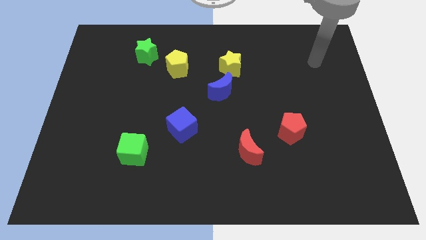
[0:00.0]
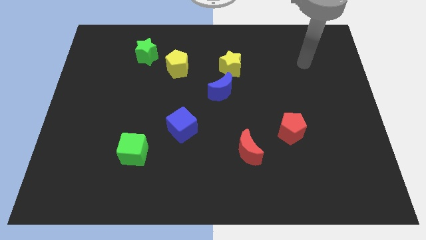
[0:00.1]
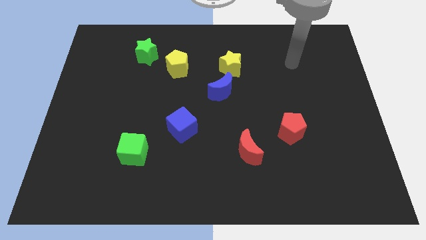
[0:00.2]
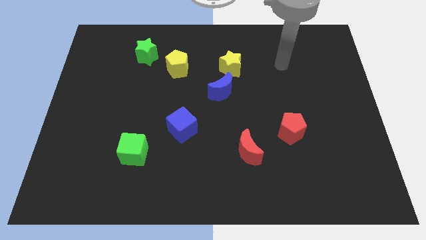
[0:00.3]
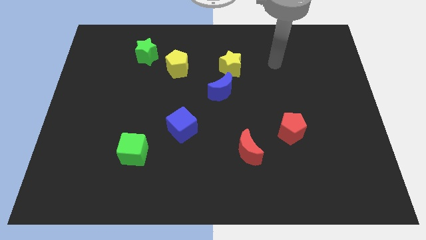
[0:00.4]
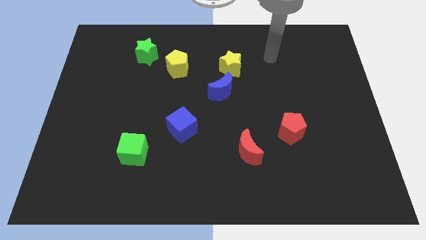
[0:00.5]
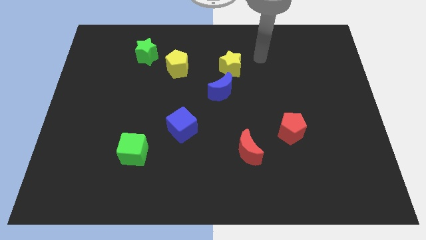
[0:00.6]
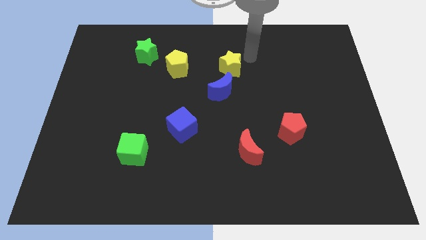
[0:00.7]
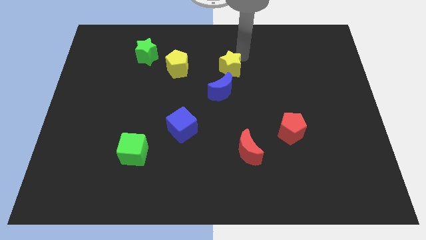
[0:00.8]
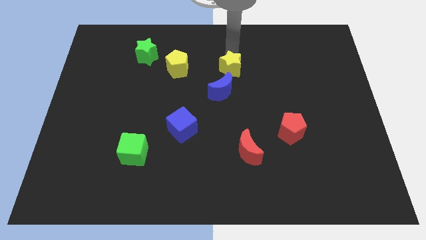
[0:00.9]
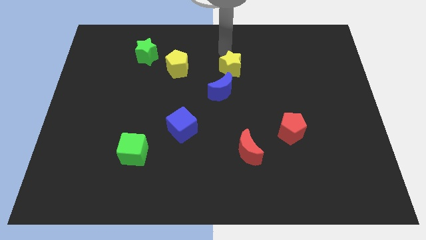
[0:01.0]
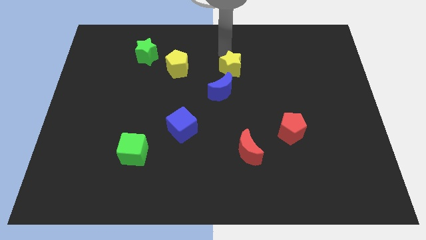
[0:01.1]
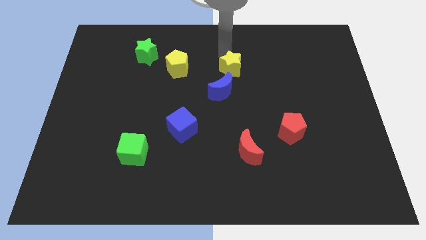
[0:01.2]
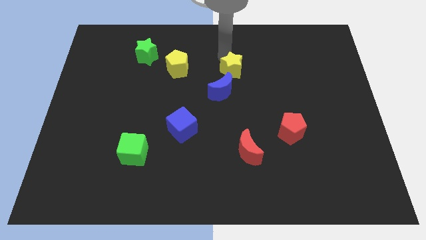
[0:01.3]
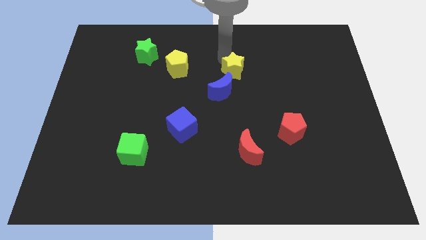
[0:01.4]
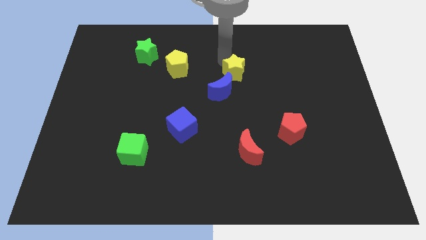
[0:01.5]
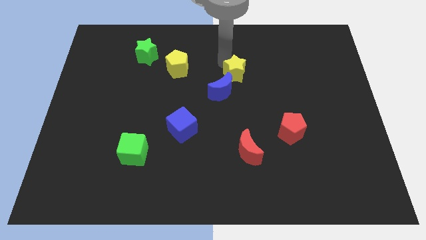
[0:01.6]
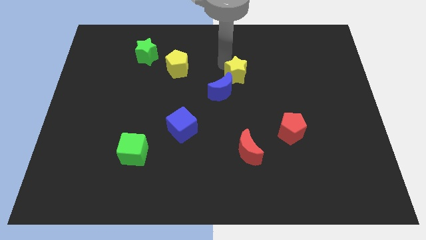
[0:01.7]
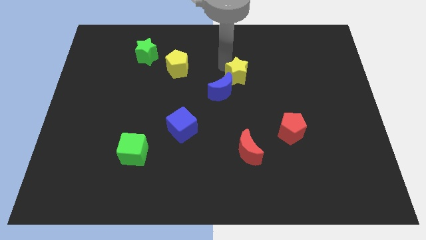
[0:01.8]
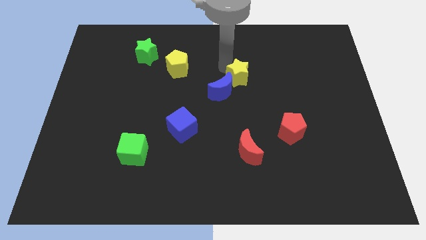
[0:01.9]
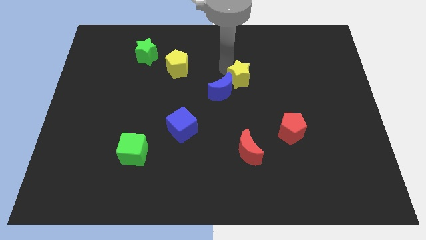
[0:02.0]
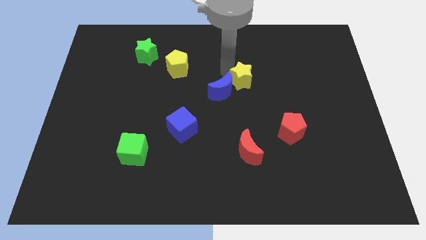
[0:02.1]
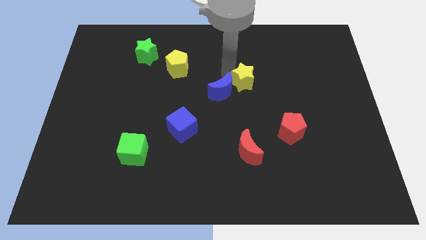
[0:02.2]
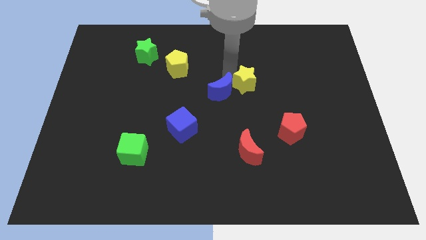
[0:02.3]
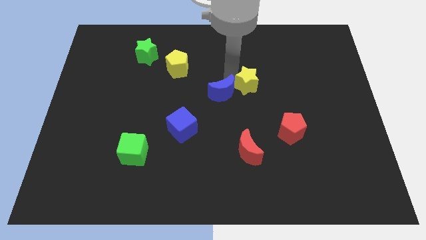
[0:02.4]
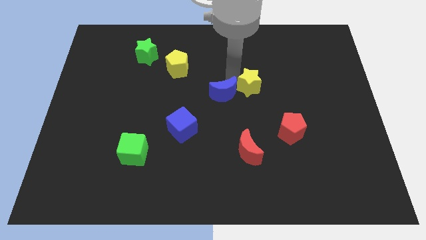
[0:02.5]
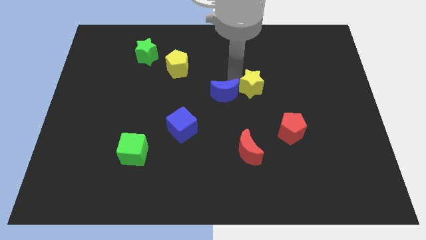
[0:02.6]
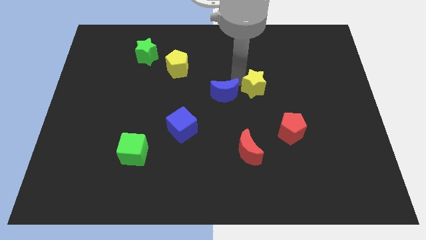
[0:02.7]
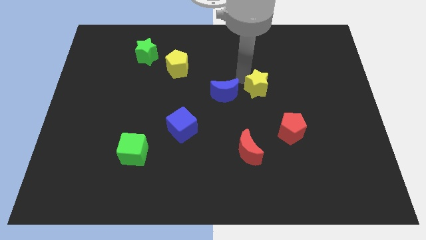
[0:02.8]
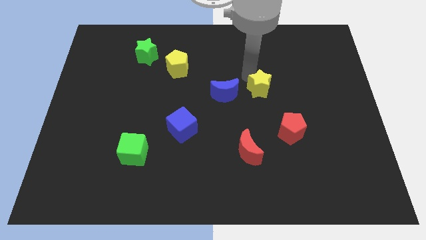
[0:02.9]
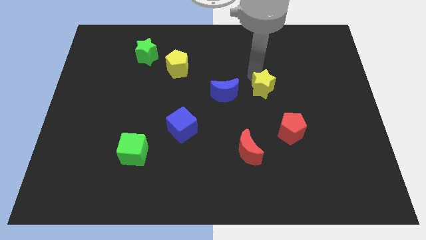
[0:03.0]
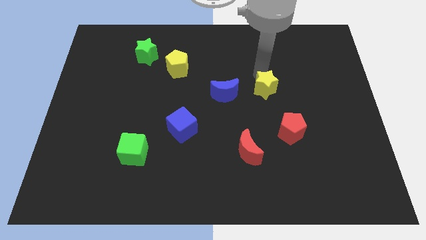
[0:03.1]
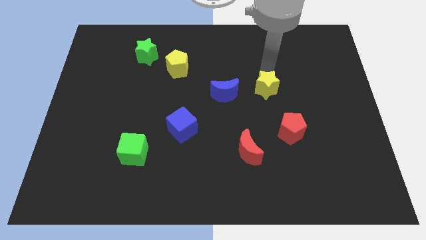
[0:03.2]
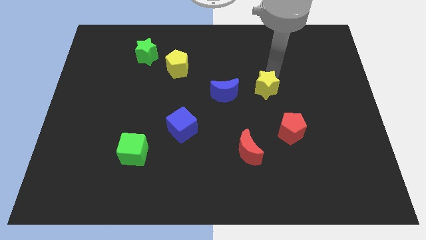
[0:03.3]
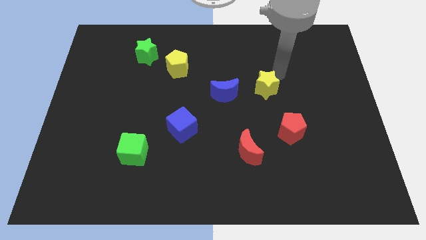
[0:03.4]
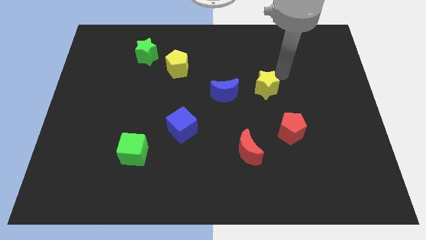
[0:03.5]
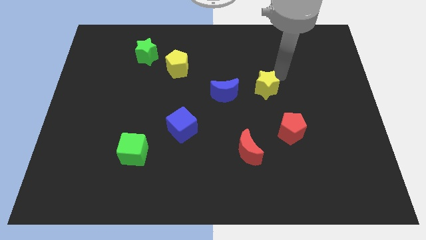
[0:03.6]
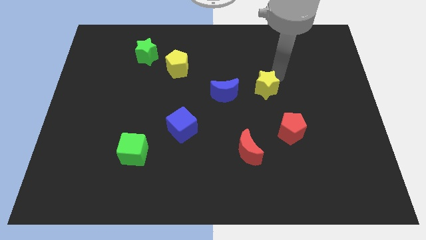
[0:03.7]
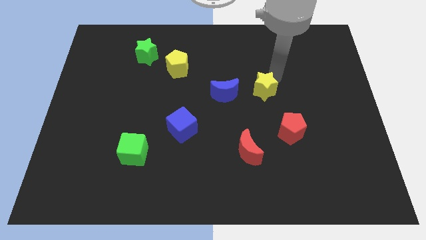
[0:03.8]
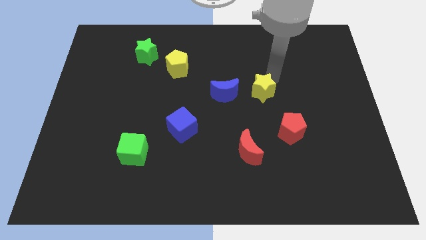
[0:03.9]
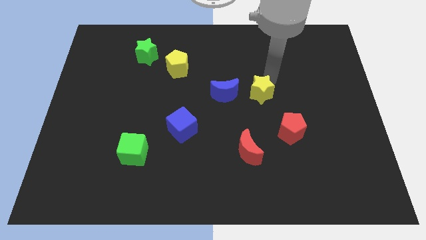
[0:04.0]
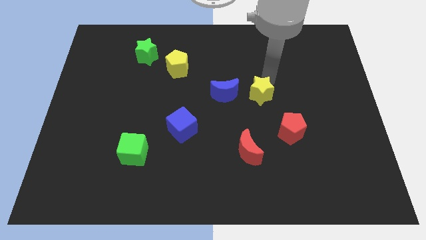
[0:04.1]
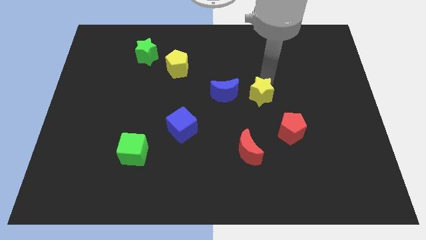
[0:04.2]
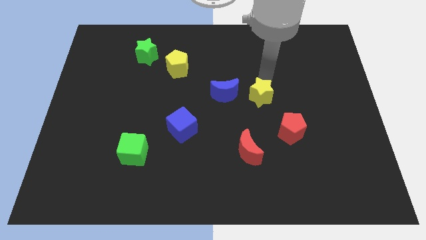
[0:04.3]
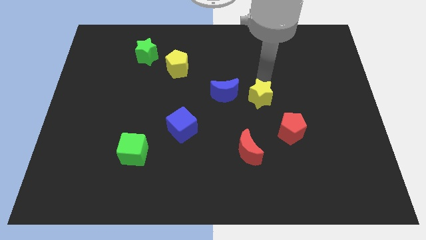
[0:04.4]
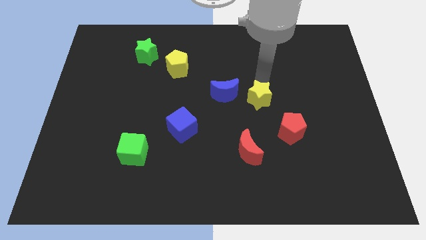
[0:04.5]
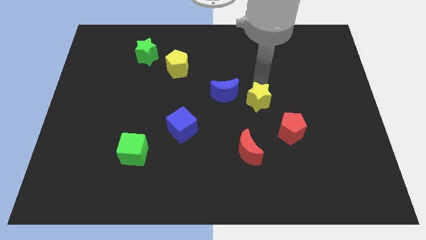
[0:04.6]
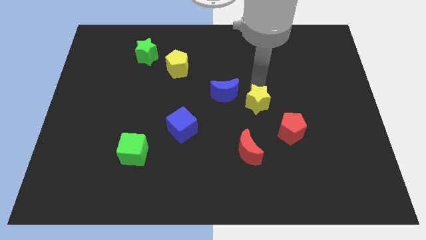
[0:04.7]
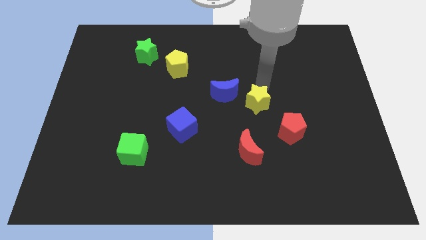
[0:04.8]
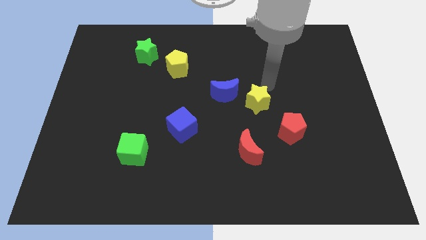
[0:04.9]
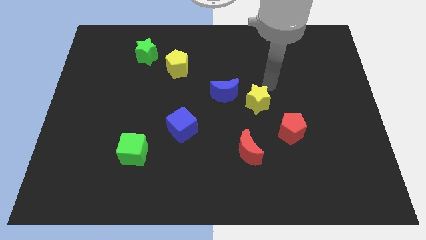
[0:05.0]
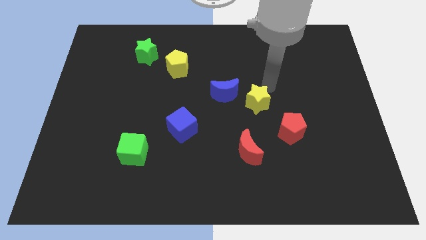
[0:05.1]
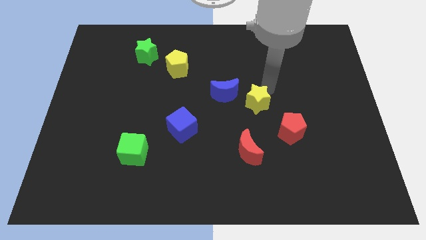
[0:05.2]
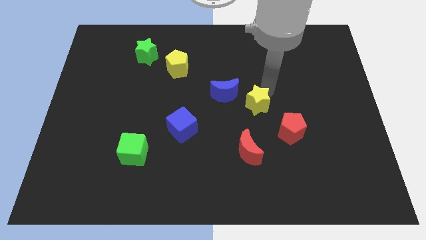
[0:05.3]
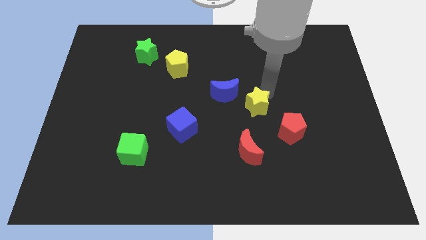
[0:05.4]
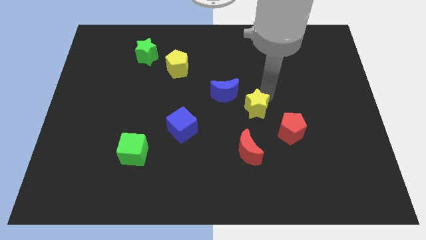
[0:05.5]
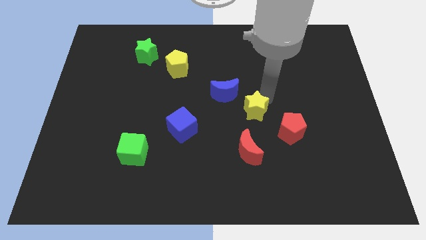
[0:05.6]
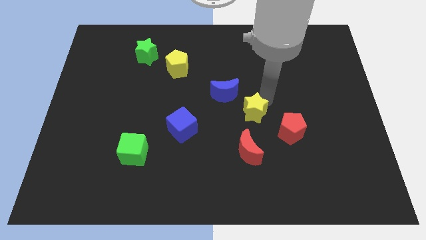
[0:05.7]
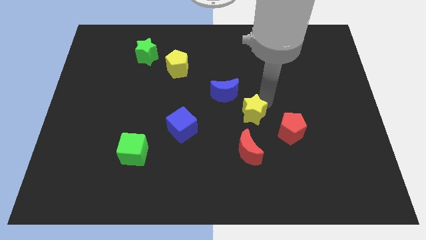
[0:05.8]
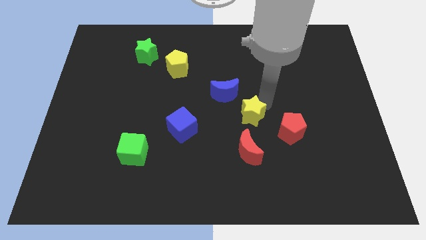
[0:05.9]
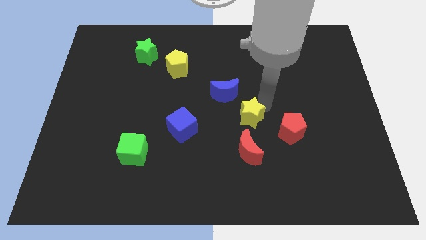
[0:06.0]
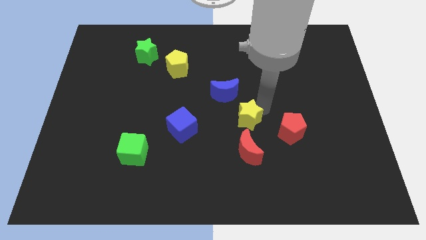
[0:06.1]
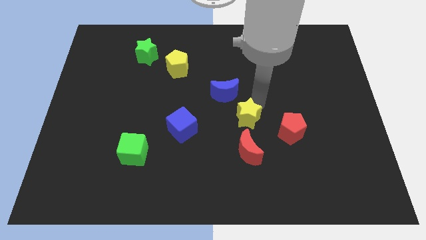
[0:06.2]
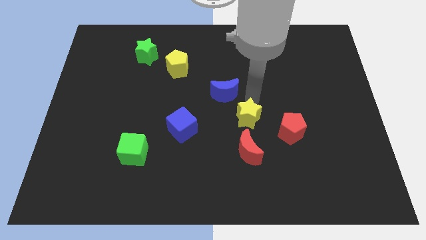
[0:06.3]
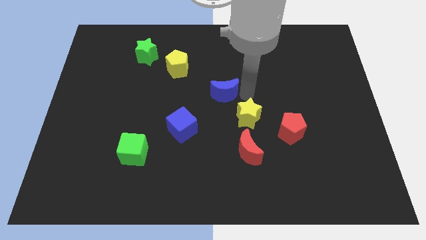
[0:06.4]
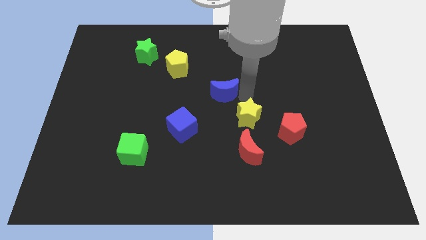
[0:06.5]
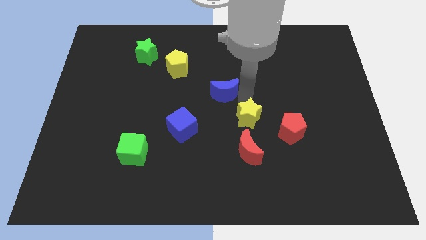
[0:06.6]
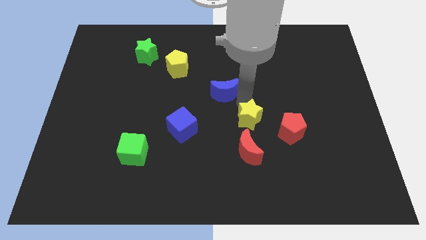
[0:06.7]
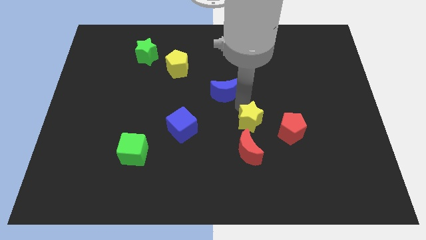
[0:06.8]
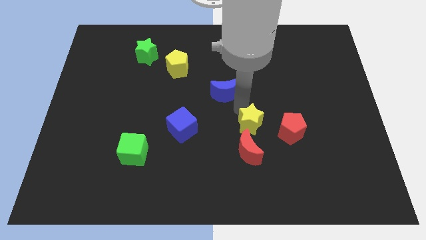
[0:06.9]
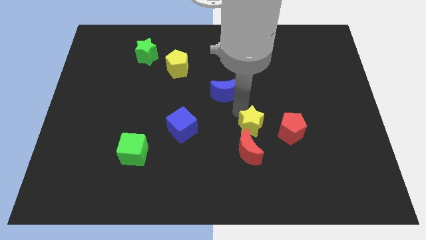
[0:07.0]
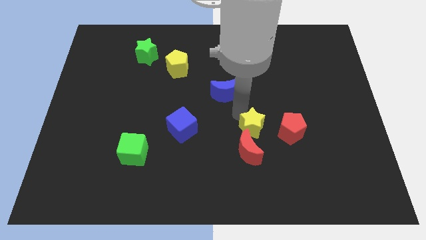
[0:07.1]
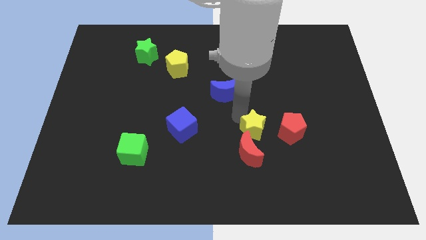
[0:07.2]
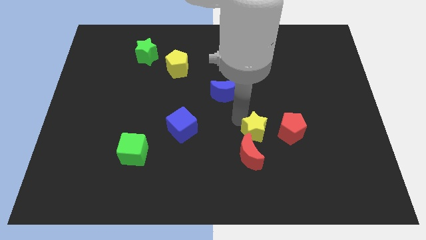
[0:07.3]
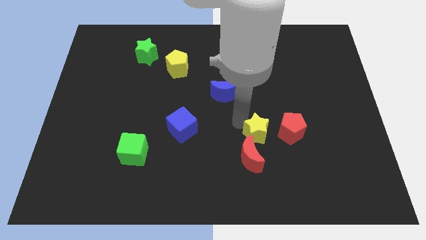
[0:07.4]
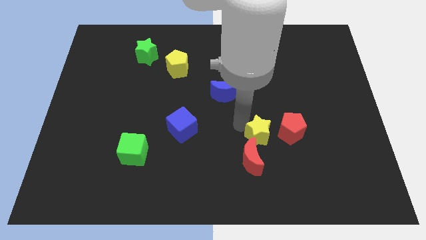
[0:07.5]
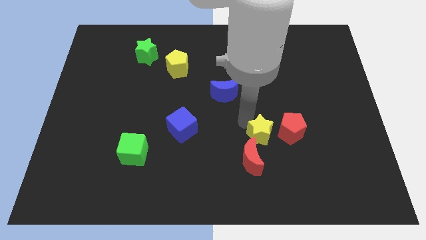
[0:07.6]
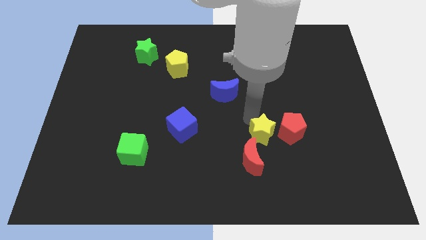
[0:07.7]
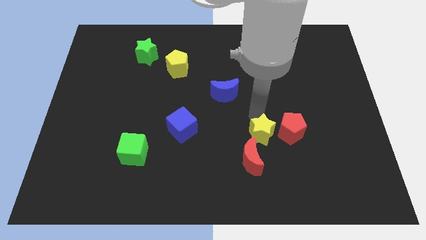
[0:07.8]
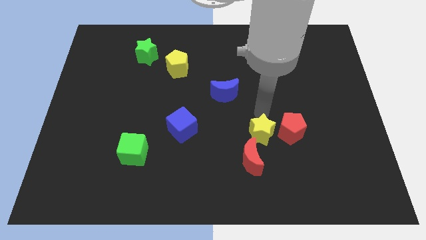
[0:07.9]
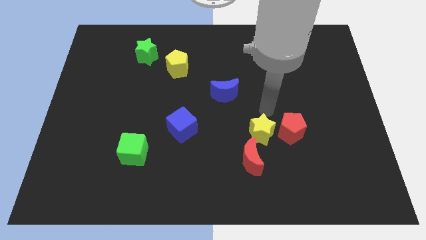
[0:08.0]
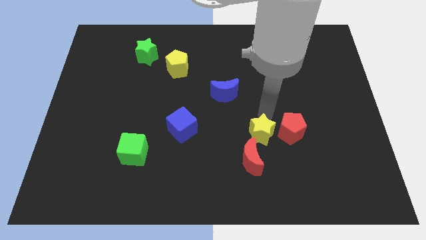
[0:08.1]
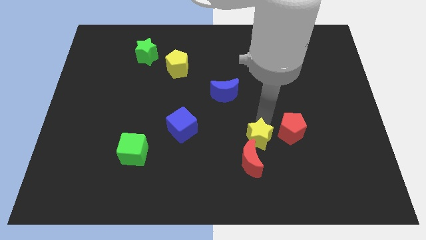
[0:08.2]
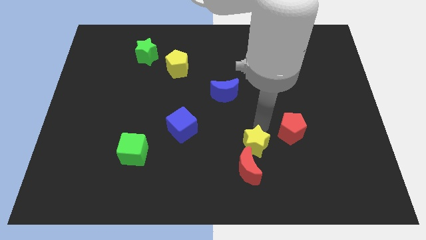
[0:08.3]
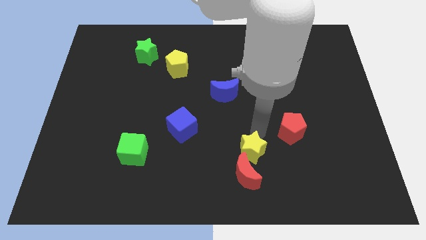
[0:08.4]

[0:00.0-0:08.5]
move the yellow star towards the red moon
